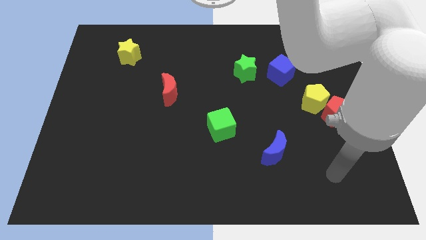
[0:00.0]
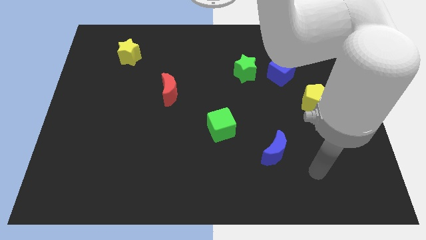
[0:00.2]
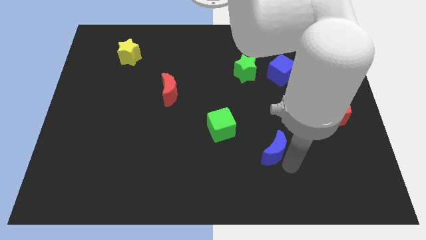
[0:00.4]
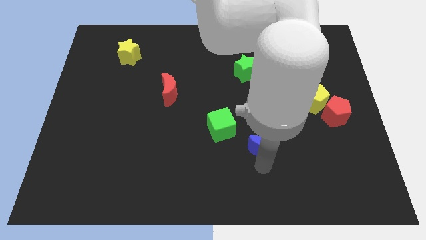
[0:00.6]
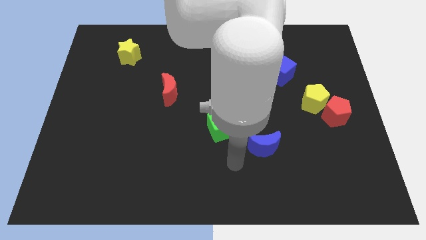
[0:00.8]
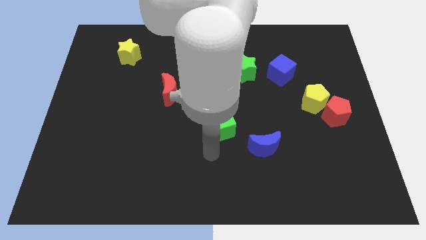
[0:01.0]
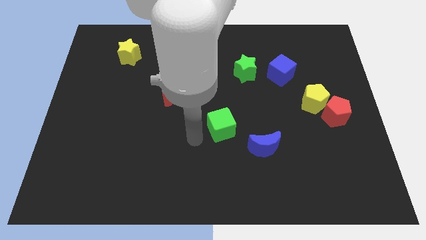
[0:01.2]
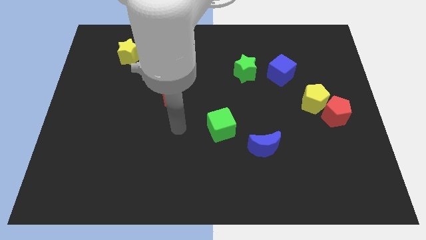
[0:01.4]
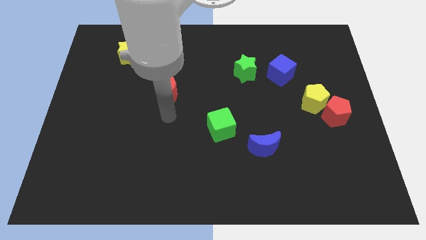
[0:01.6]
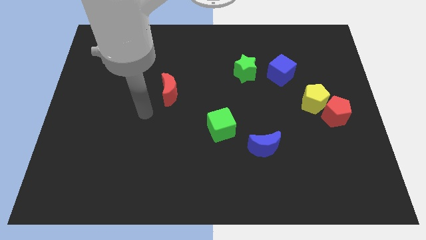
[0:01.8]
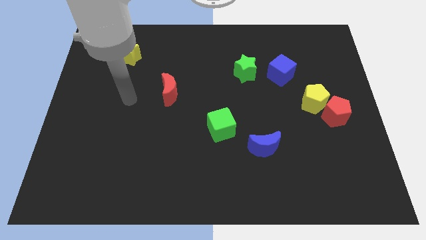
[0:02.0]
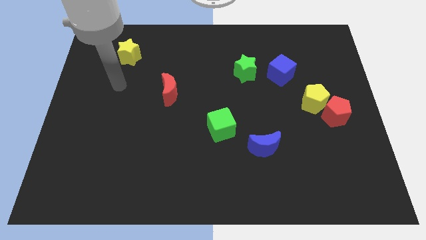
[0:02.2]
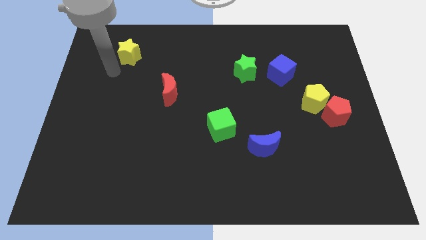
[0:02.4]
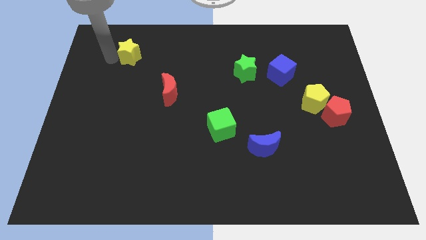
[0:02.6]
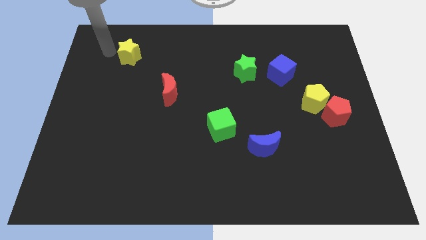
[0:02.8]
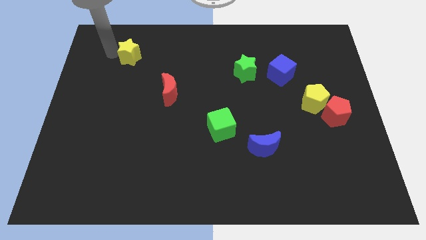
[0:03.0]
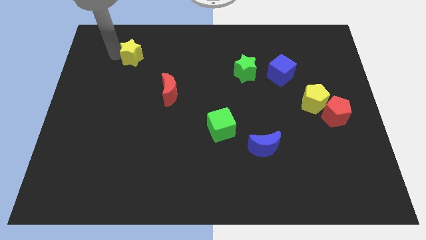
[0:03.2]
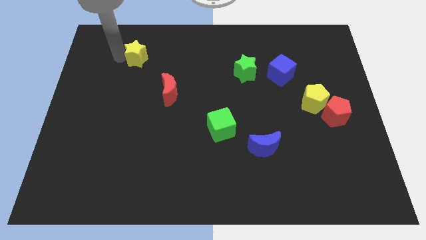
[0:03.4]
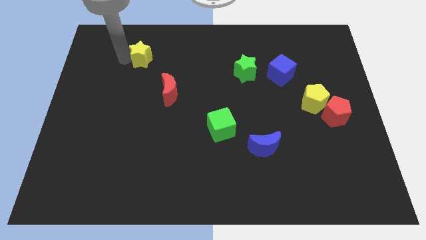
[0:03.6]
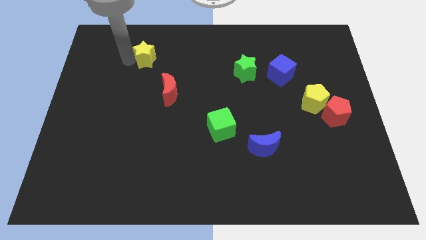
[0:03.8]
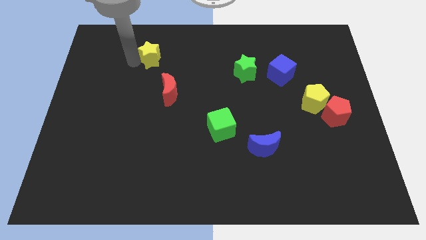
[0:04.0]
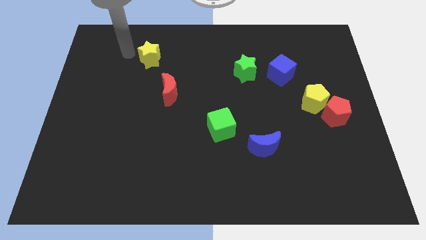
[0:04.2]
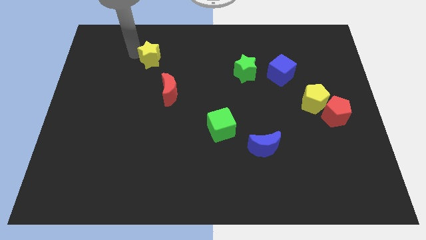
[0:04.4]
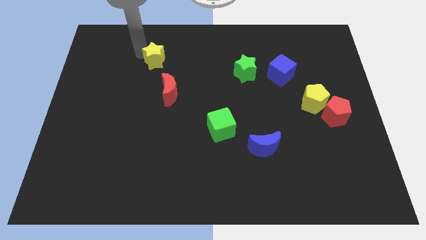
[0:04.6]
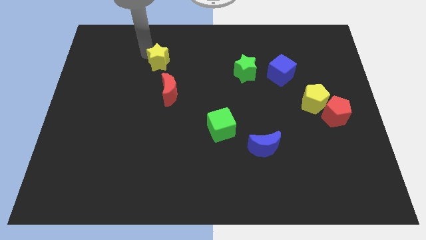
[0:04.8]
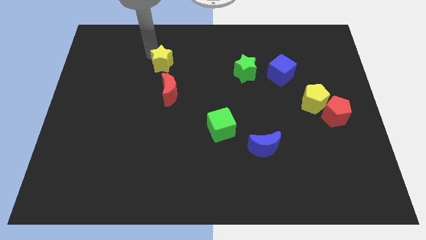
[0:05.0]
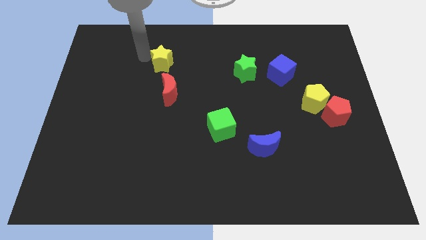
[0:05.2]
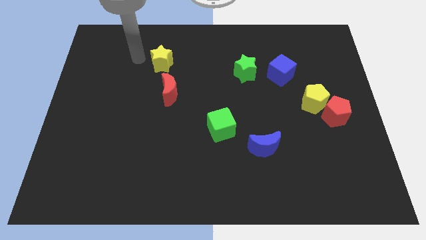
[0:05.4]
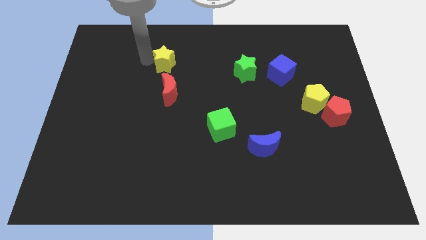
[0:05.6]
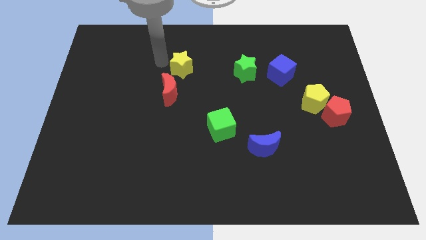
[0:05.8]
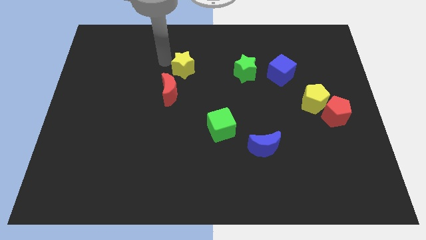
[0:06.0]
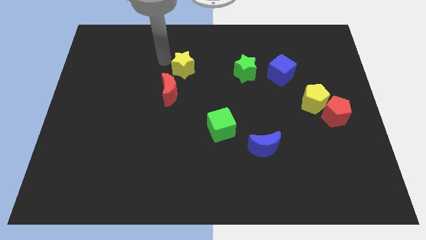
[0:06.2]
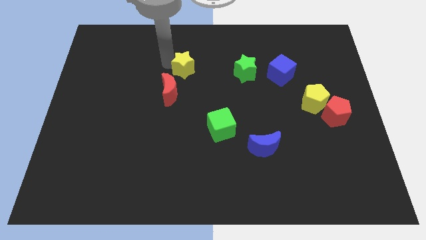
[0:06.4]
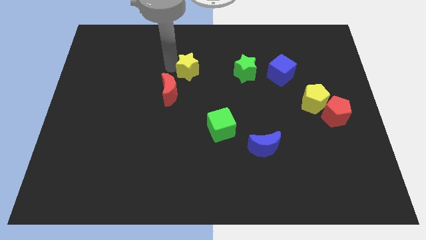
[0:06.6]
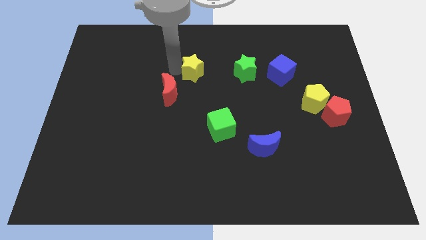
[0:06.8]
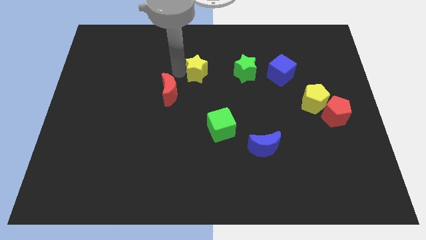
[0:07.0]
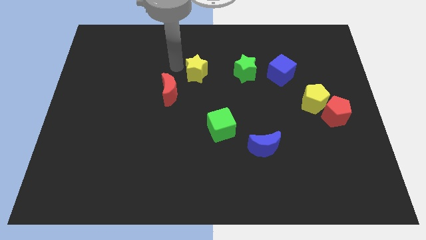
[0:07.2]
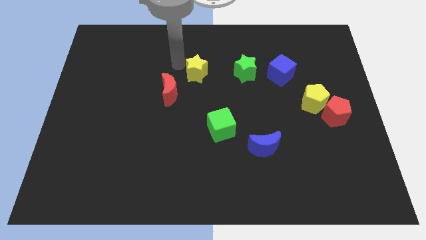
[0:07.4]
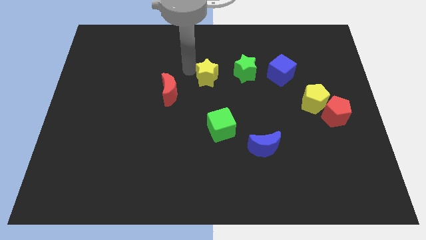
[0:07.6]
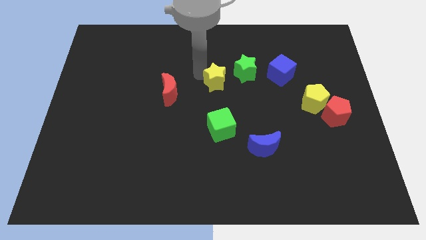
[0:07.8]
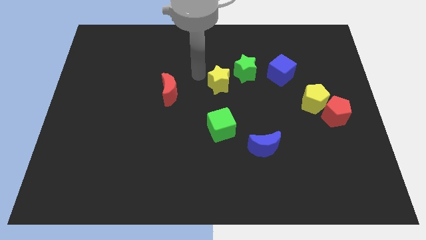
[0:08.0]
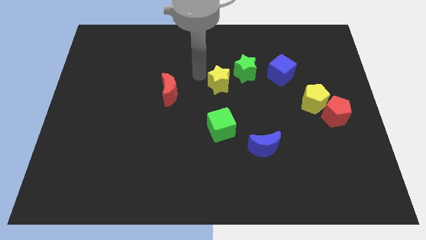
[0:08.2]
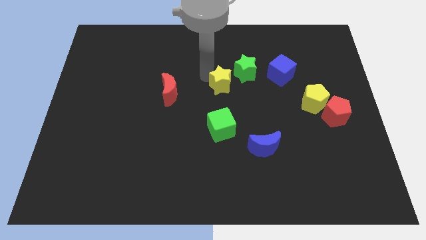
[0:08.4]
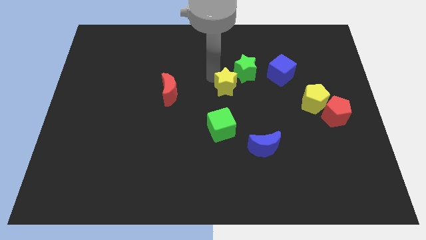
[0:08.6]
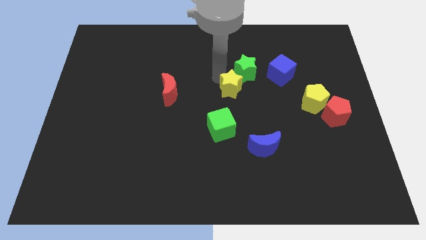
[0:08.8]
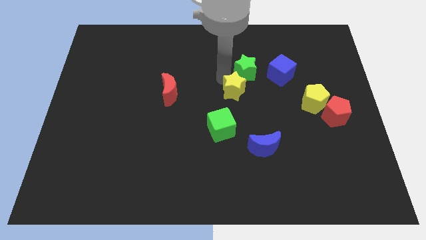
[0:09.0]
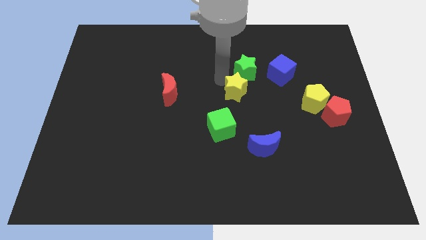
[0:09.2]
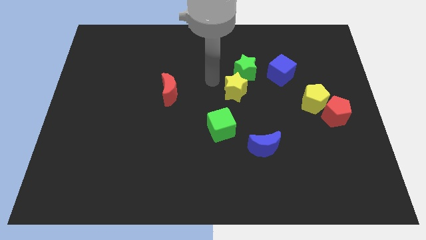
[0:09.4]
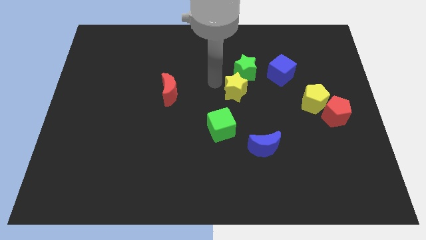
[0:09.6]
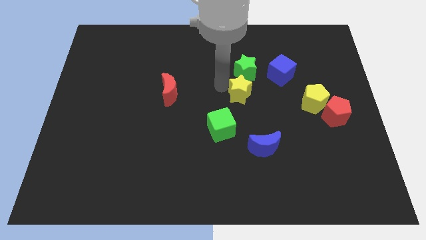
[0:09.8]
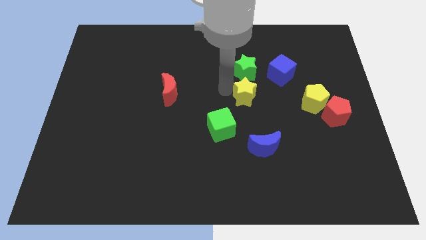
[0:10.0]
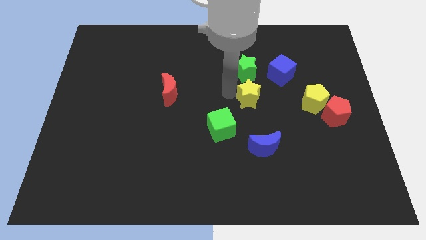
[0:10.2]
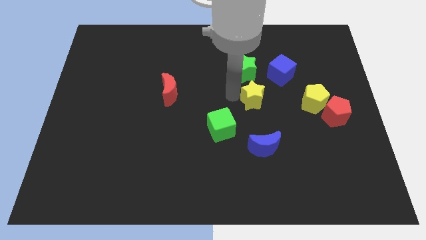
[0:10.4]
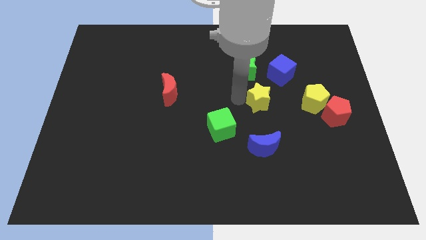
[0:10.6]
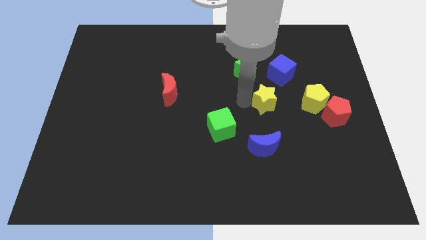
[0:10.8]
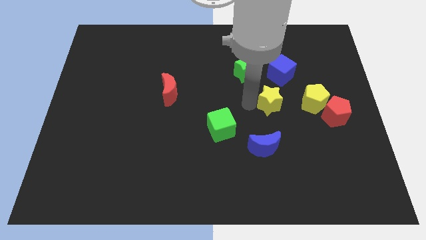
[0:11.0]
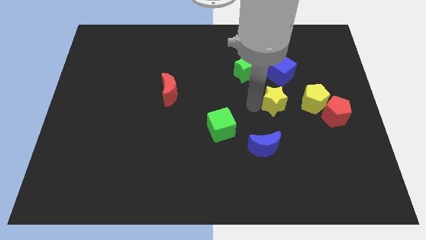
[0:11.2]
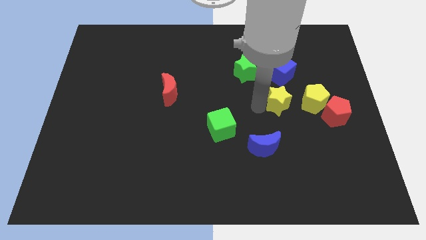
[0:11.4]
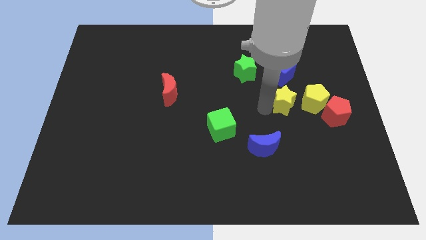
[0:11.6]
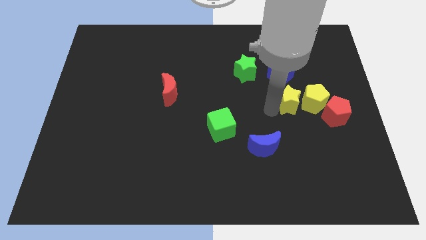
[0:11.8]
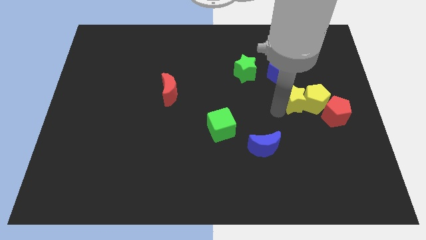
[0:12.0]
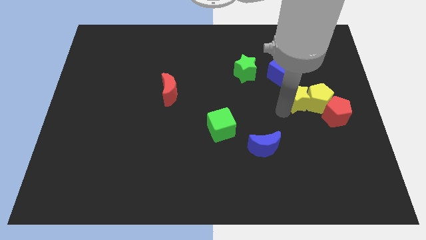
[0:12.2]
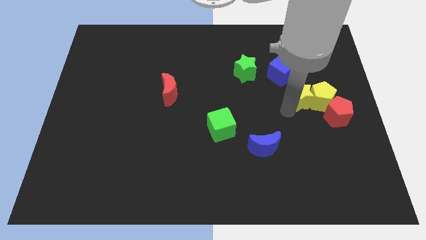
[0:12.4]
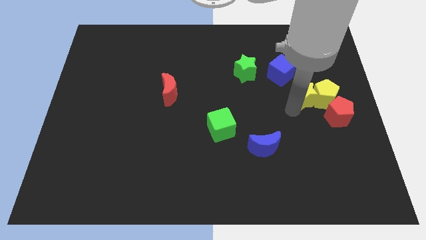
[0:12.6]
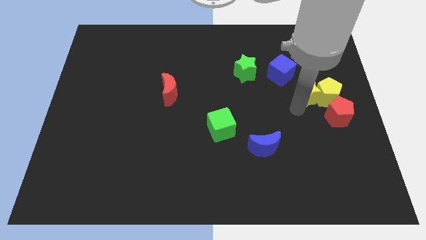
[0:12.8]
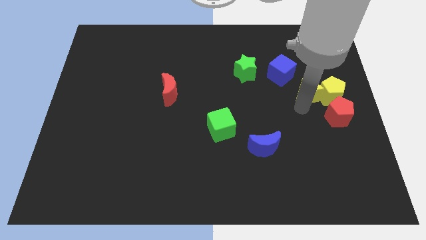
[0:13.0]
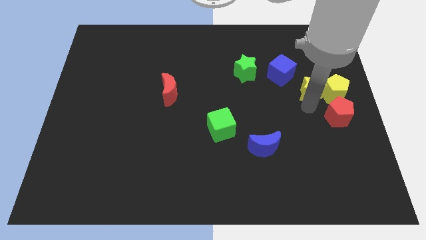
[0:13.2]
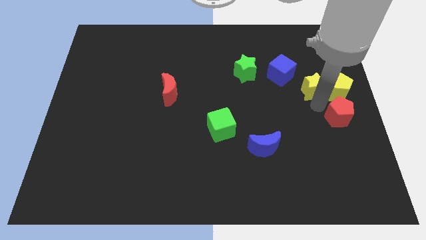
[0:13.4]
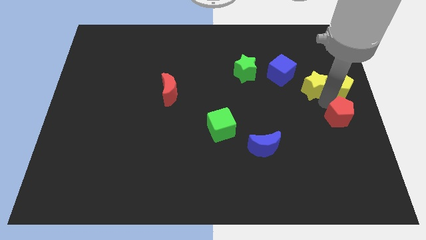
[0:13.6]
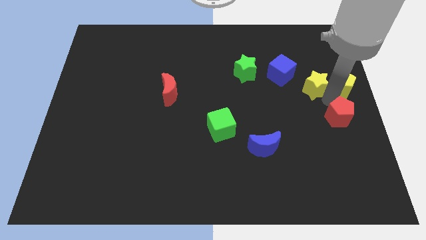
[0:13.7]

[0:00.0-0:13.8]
put the yellow star to the center right

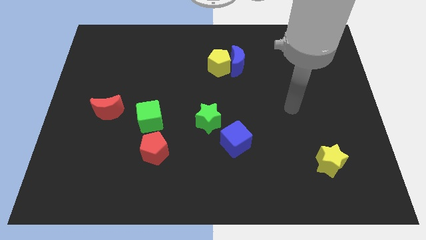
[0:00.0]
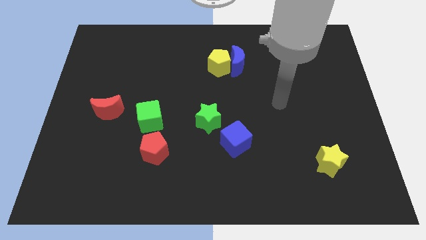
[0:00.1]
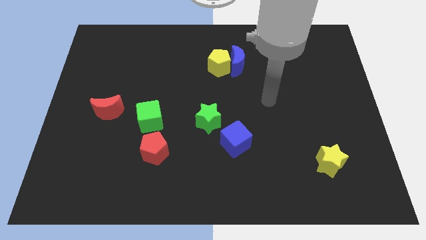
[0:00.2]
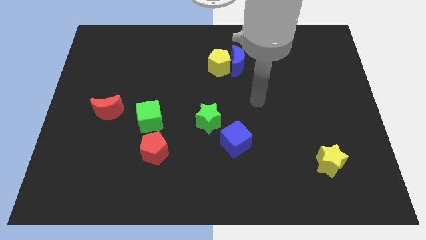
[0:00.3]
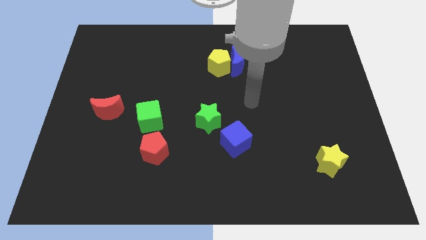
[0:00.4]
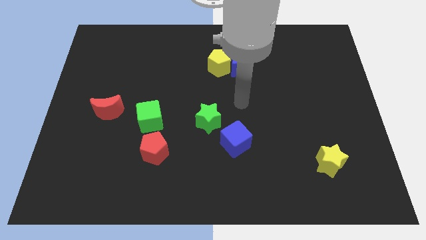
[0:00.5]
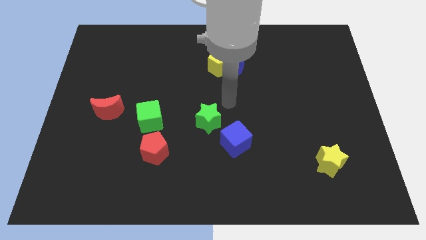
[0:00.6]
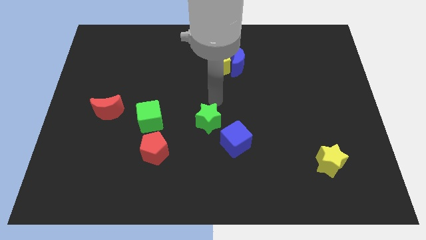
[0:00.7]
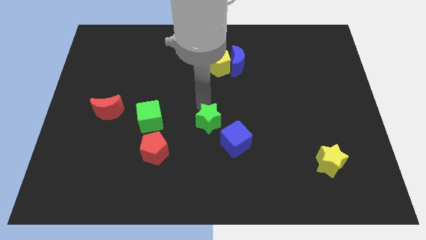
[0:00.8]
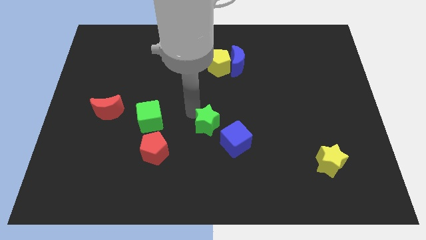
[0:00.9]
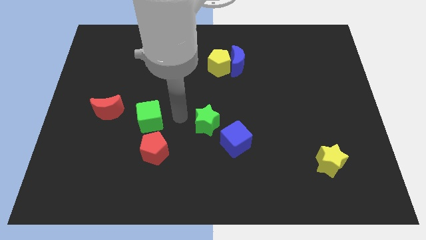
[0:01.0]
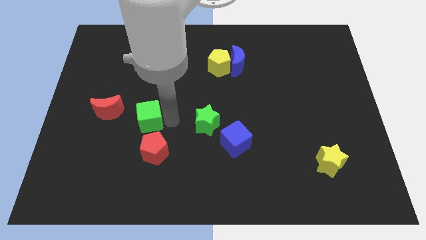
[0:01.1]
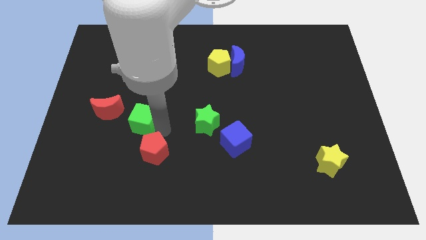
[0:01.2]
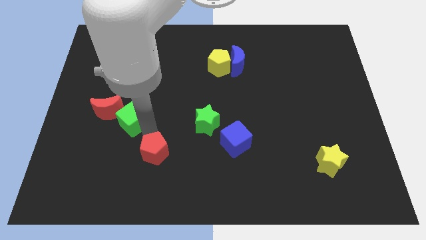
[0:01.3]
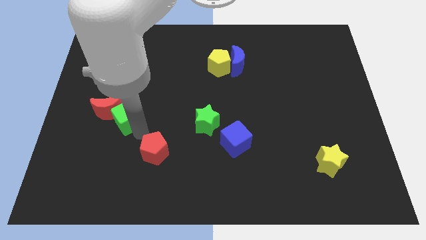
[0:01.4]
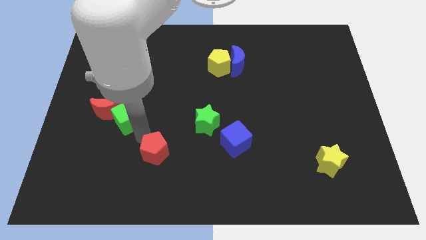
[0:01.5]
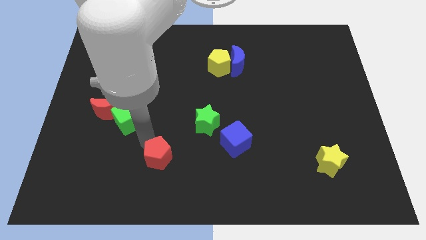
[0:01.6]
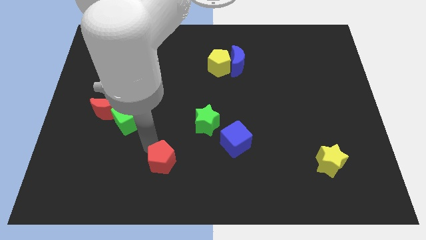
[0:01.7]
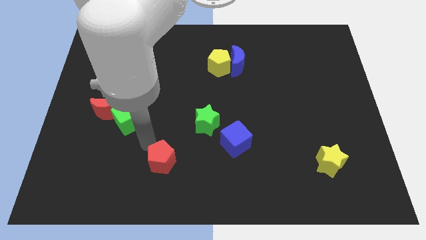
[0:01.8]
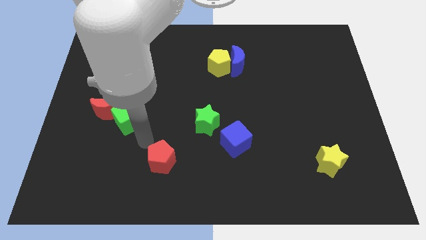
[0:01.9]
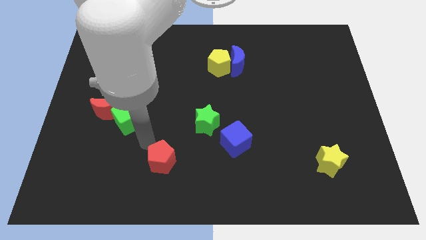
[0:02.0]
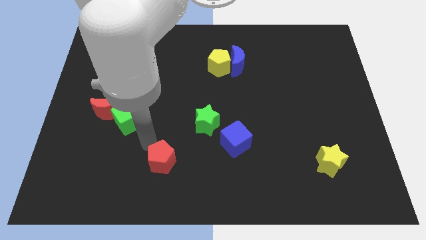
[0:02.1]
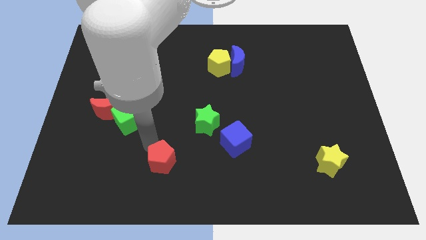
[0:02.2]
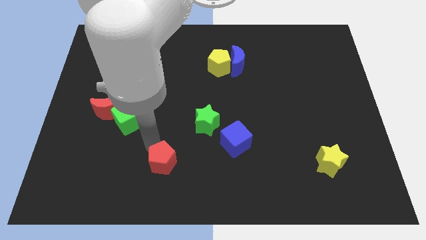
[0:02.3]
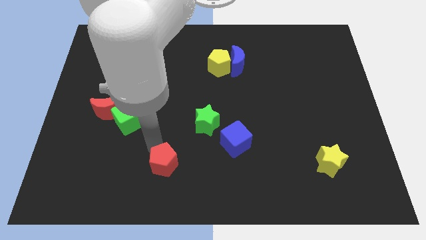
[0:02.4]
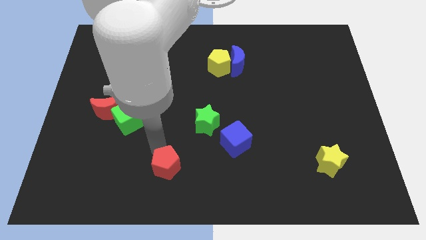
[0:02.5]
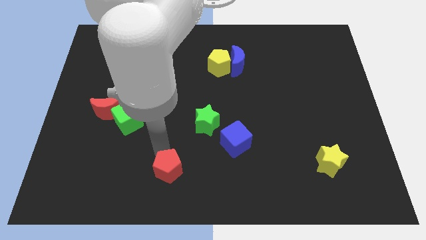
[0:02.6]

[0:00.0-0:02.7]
move the red pentagon to the bottom
